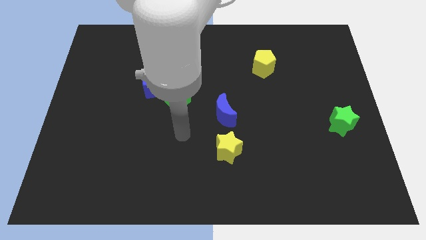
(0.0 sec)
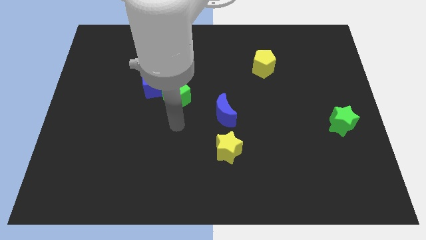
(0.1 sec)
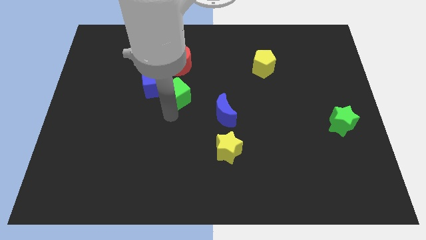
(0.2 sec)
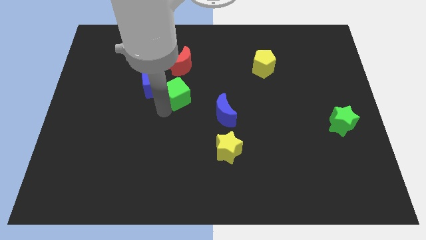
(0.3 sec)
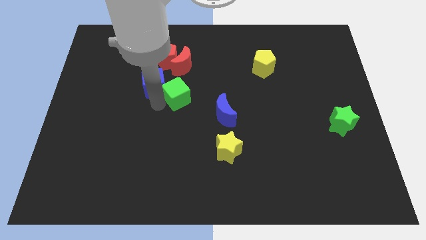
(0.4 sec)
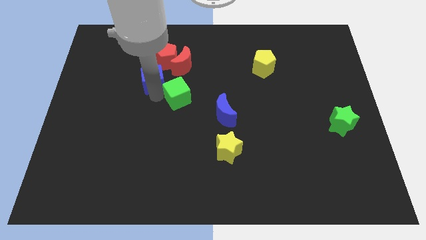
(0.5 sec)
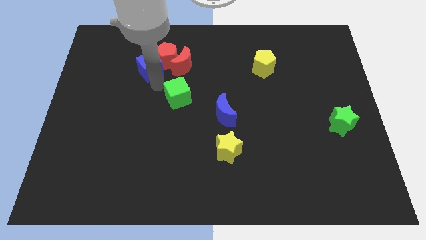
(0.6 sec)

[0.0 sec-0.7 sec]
pull the green cube apart from the blue cube

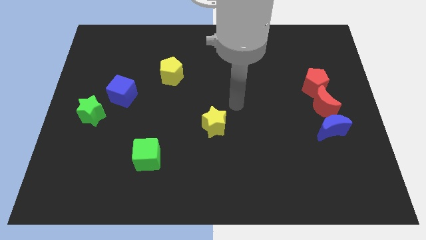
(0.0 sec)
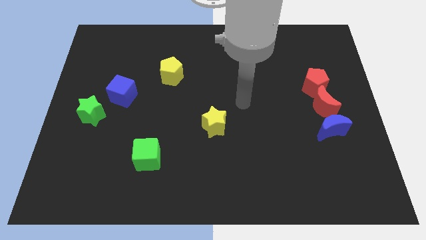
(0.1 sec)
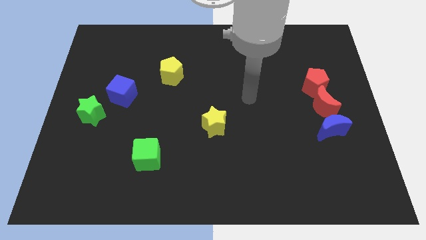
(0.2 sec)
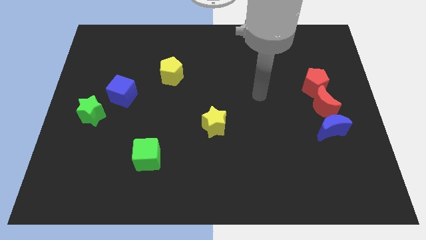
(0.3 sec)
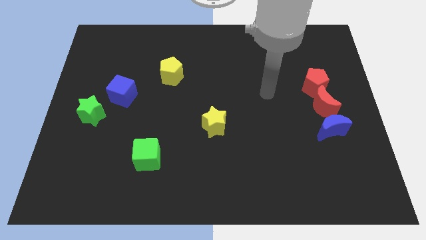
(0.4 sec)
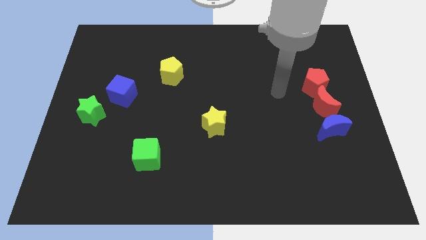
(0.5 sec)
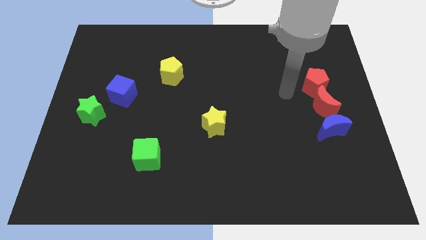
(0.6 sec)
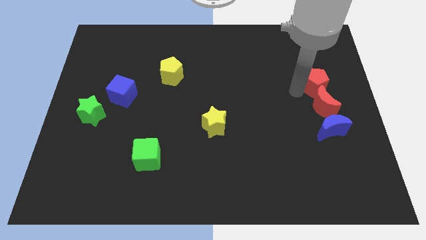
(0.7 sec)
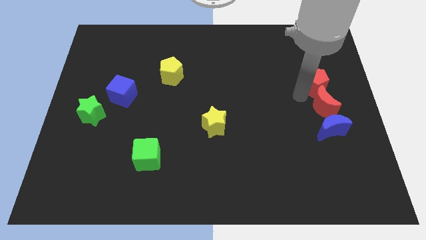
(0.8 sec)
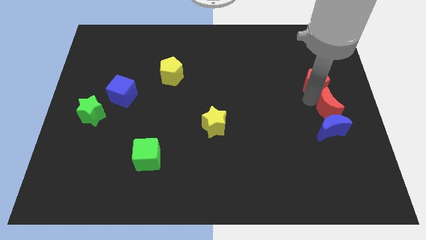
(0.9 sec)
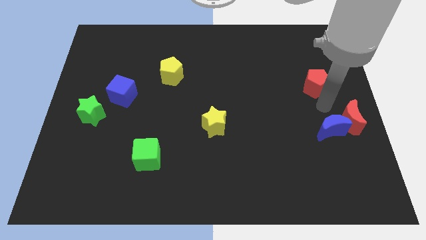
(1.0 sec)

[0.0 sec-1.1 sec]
move the red pentagon away from the red moon

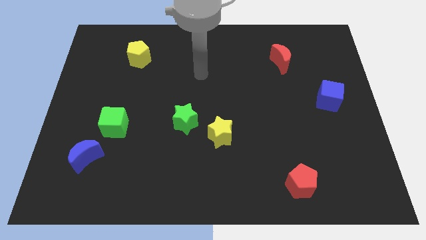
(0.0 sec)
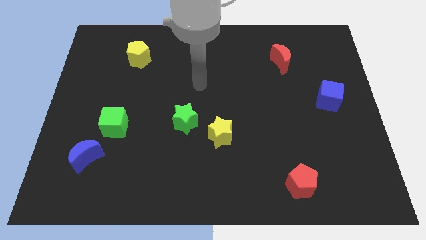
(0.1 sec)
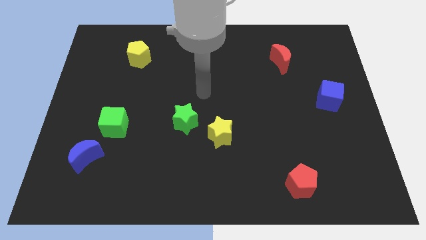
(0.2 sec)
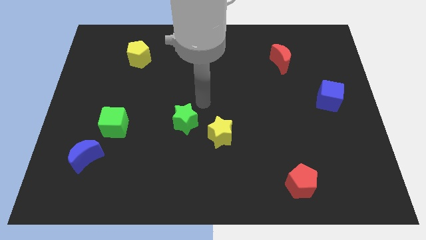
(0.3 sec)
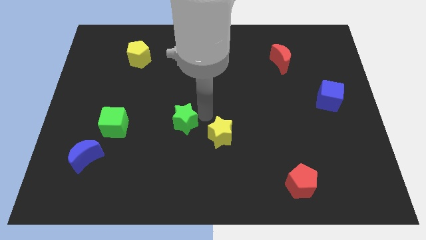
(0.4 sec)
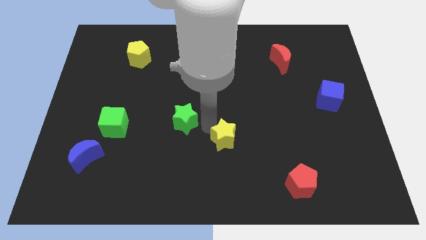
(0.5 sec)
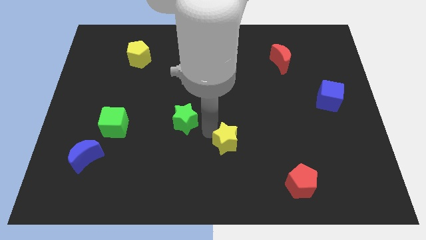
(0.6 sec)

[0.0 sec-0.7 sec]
separate the green star from the yellow star

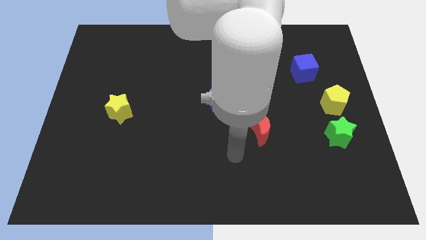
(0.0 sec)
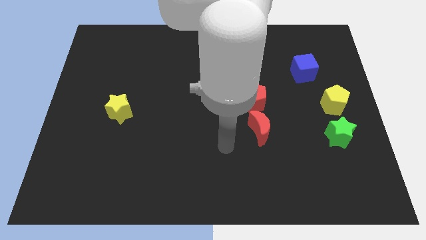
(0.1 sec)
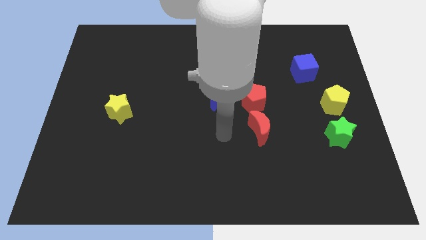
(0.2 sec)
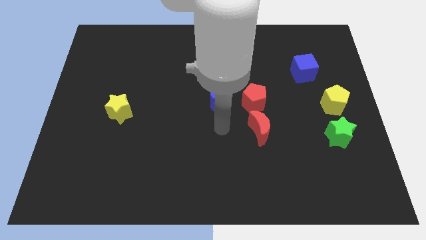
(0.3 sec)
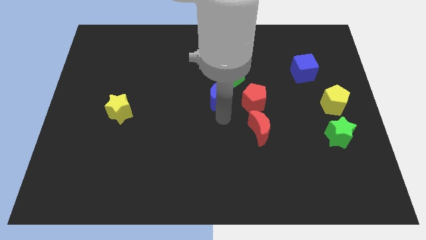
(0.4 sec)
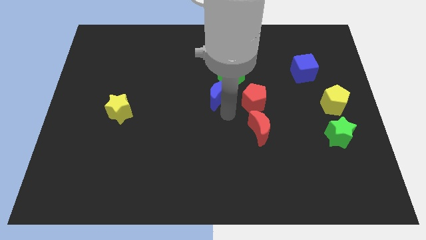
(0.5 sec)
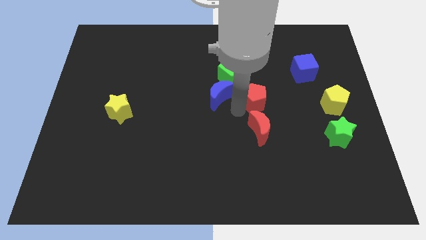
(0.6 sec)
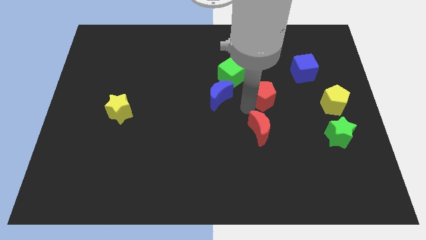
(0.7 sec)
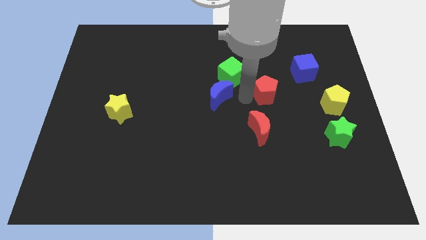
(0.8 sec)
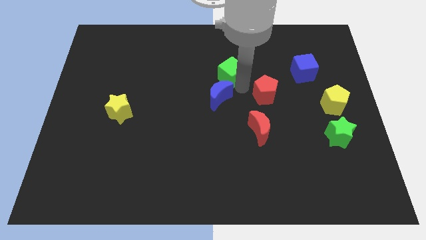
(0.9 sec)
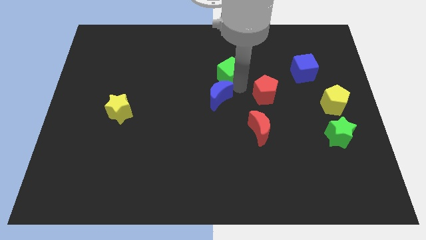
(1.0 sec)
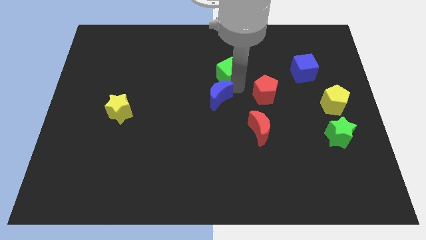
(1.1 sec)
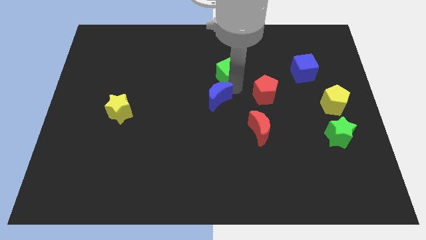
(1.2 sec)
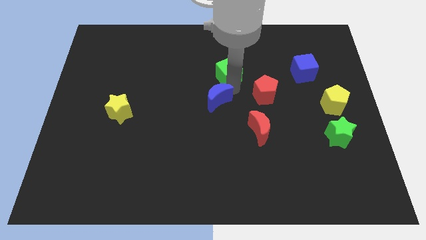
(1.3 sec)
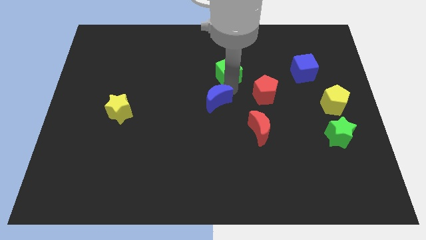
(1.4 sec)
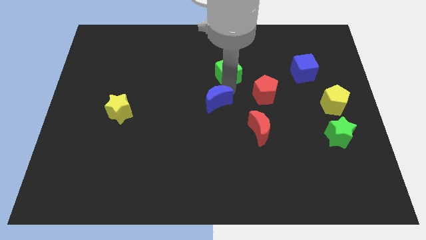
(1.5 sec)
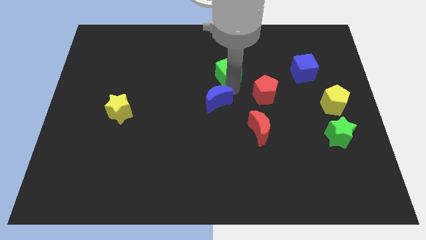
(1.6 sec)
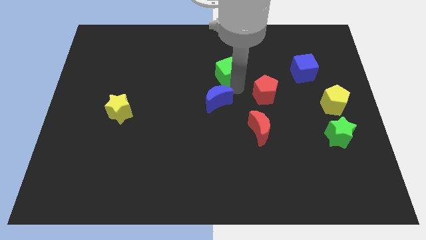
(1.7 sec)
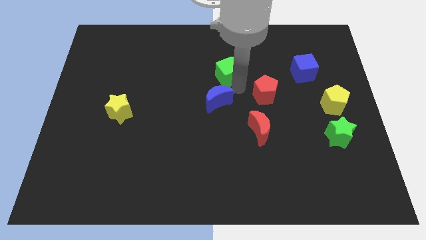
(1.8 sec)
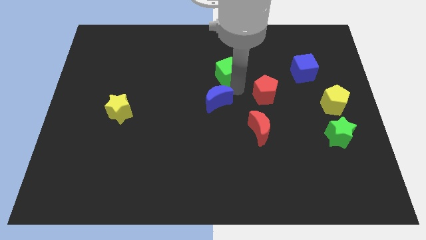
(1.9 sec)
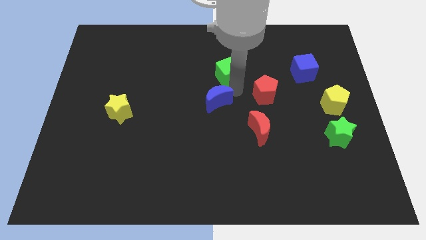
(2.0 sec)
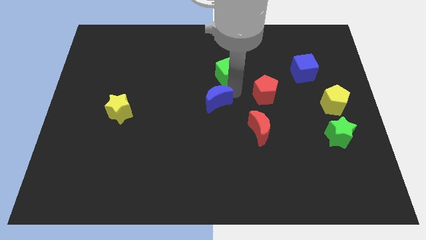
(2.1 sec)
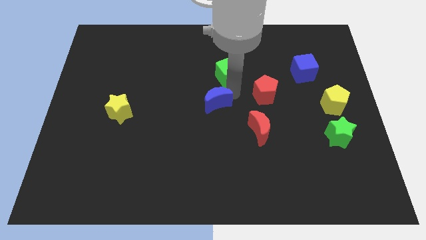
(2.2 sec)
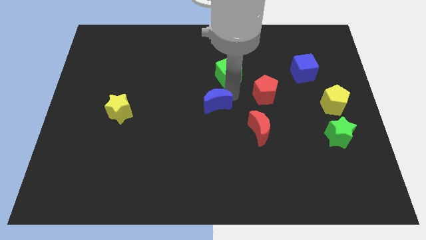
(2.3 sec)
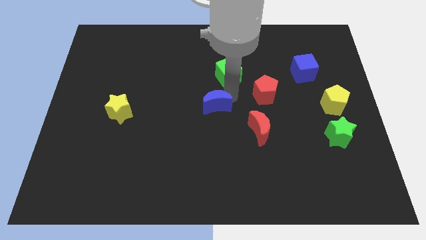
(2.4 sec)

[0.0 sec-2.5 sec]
pull the blue moon apart from the green cube and red pentagon
